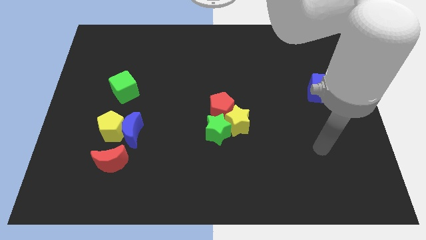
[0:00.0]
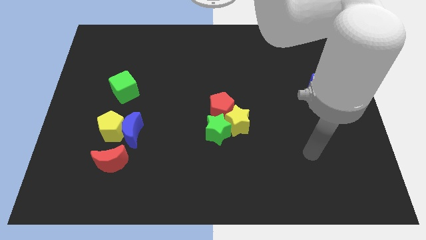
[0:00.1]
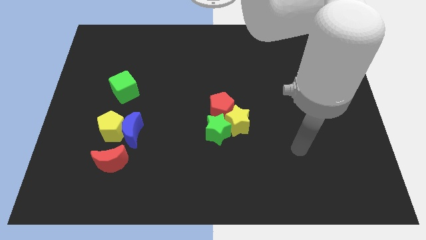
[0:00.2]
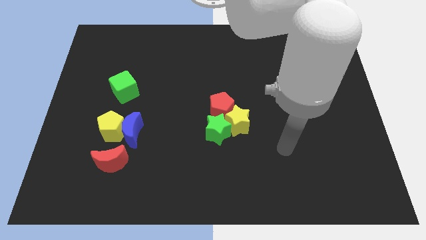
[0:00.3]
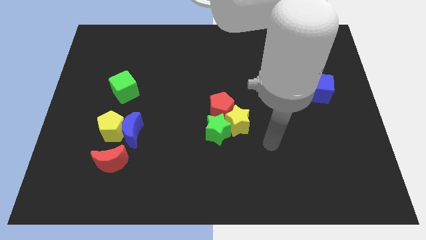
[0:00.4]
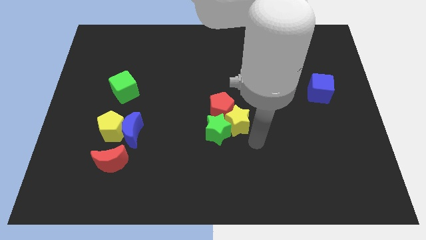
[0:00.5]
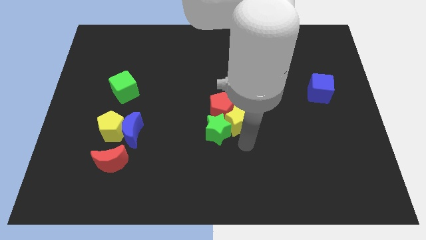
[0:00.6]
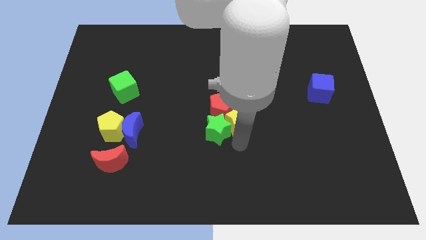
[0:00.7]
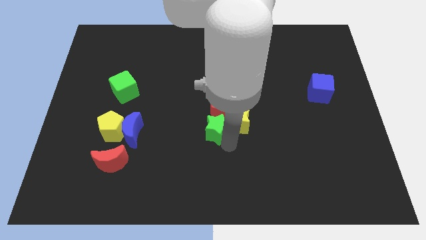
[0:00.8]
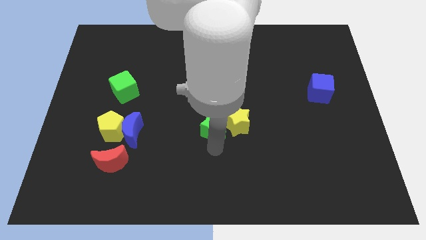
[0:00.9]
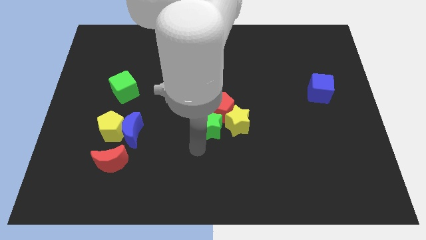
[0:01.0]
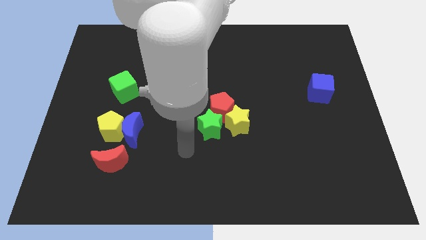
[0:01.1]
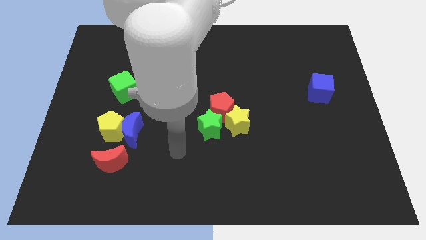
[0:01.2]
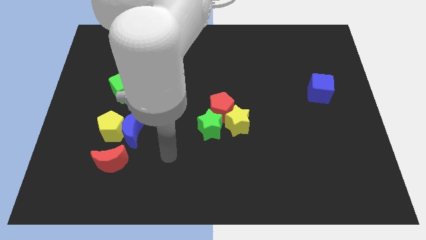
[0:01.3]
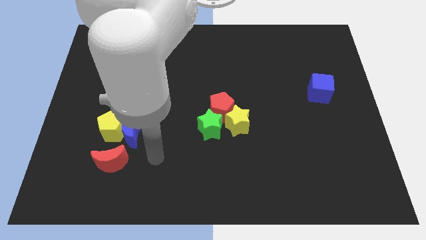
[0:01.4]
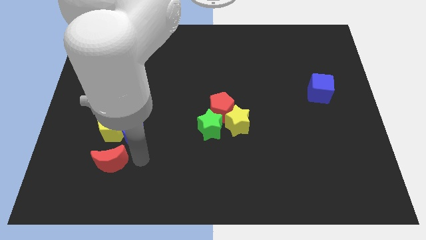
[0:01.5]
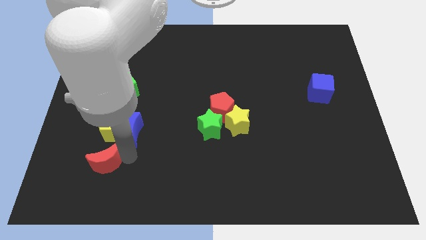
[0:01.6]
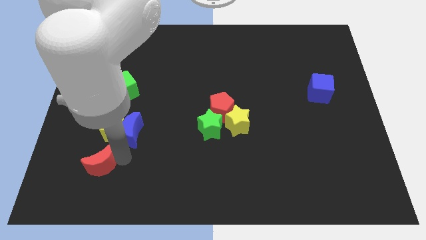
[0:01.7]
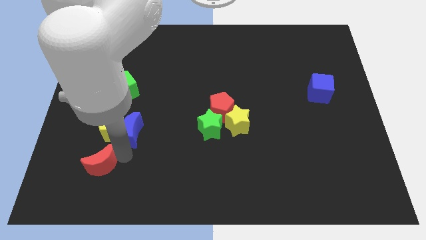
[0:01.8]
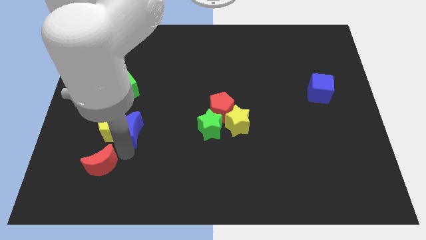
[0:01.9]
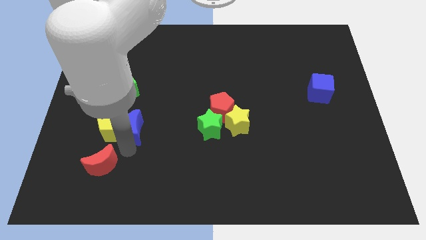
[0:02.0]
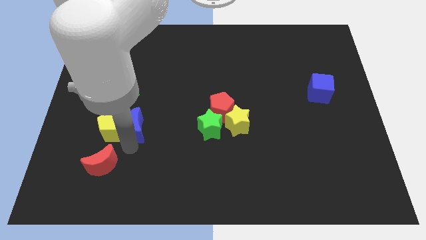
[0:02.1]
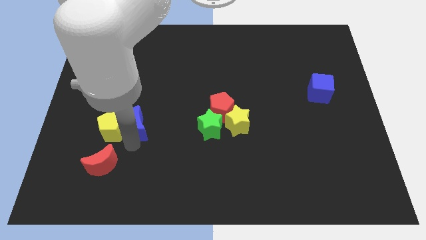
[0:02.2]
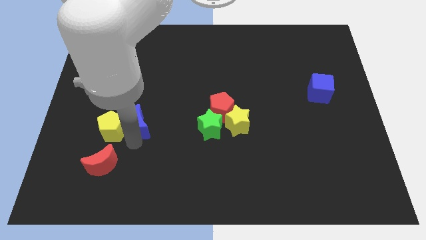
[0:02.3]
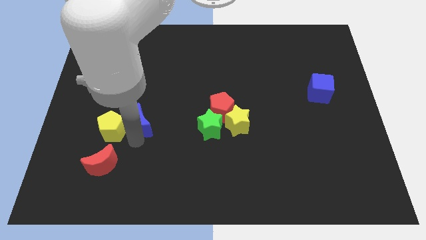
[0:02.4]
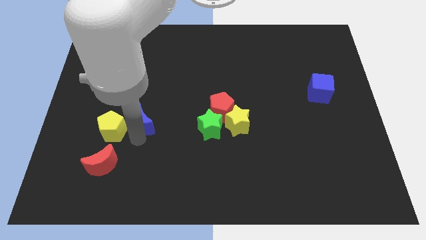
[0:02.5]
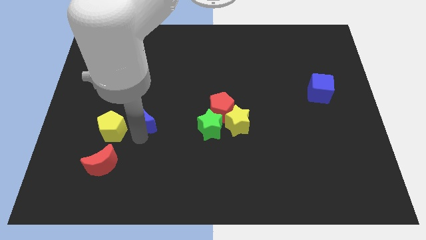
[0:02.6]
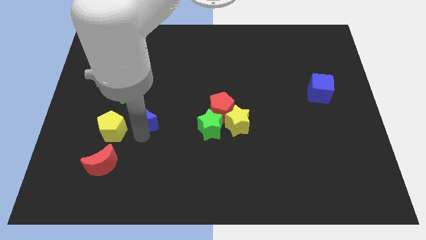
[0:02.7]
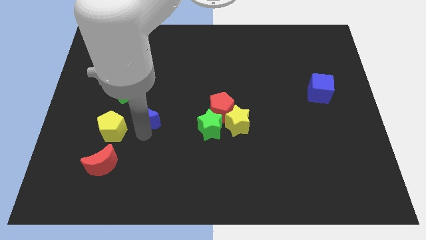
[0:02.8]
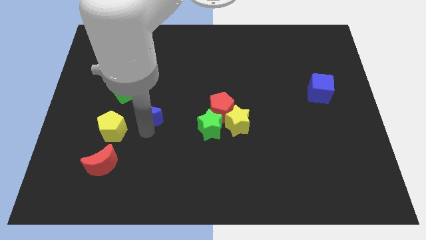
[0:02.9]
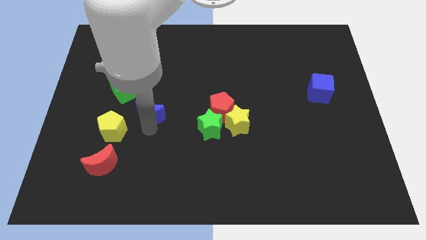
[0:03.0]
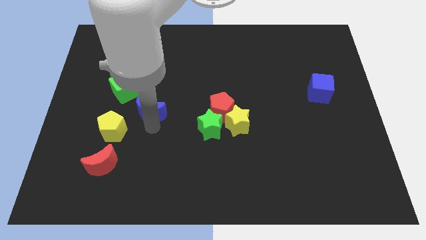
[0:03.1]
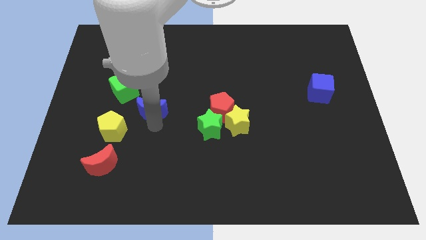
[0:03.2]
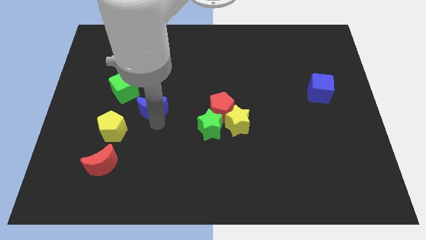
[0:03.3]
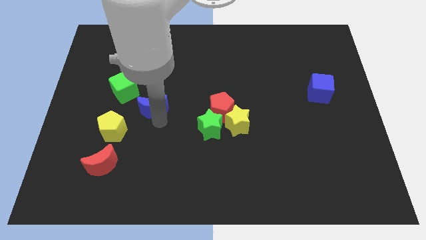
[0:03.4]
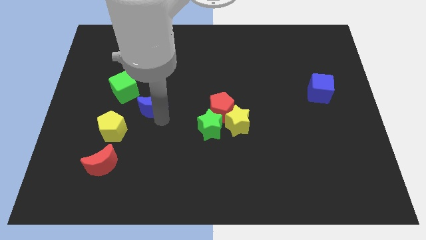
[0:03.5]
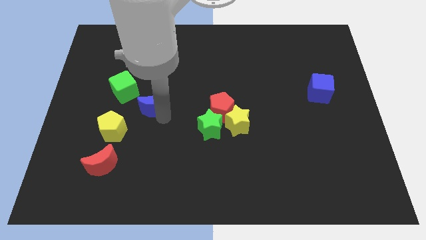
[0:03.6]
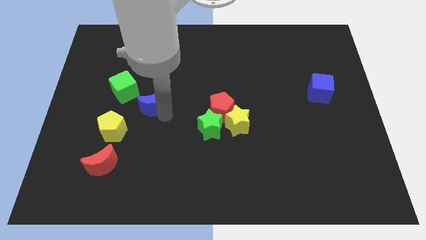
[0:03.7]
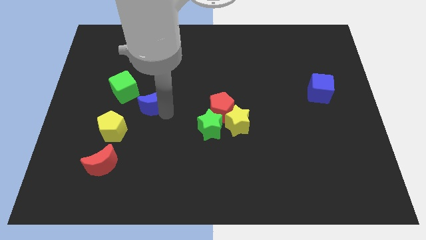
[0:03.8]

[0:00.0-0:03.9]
slide the blue moon a bit up

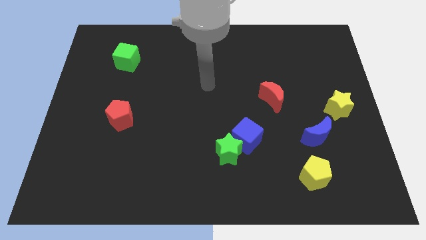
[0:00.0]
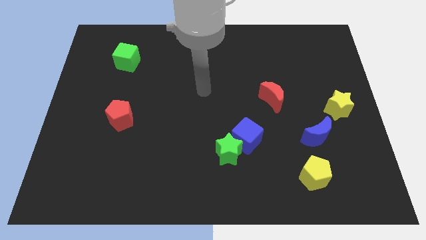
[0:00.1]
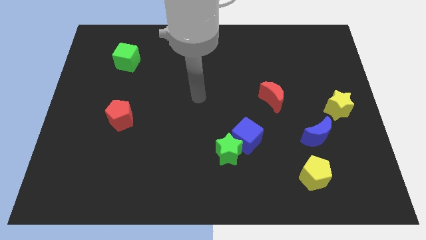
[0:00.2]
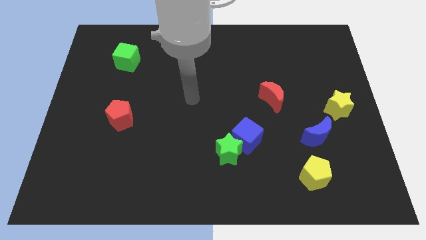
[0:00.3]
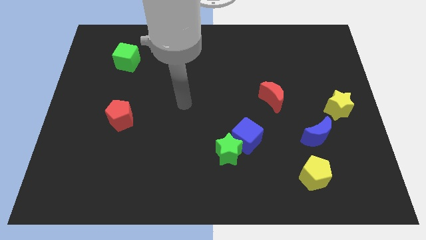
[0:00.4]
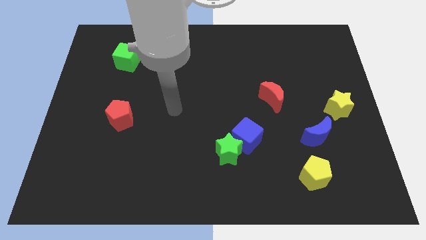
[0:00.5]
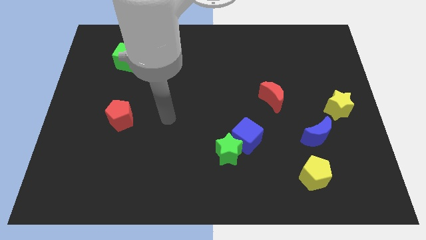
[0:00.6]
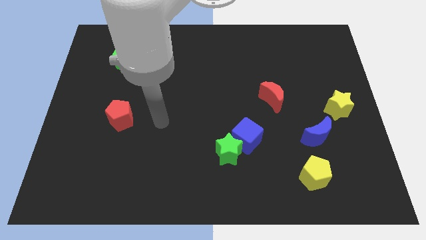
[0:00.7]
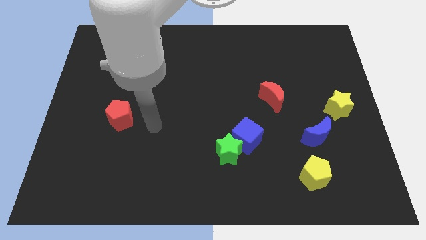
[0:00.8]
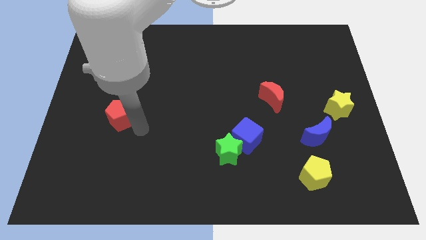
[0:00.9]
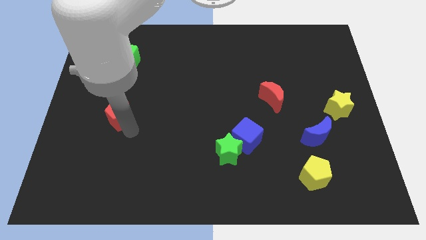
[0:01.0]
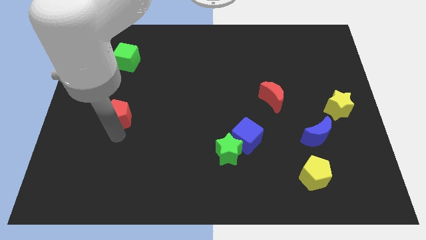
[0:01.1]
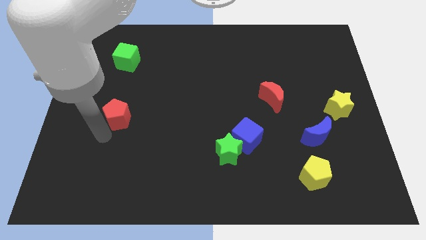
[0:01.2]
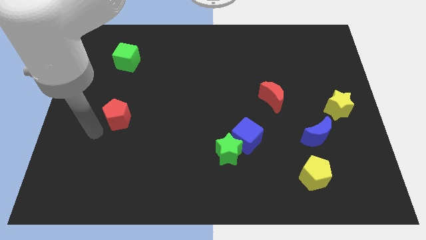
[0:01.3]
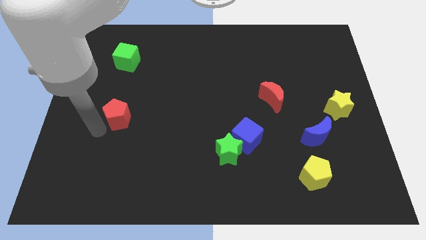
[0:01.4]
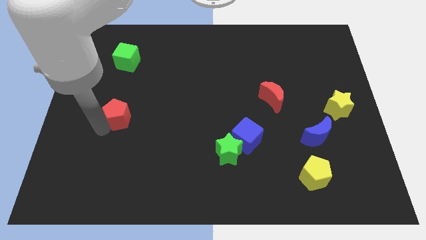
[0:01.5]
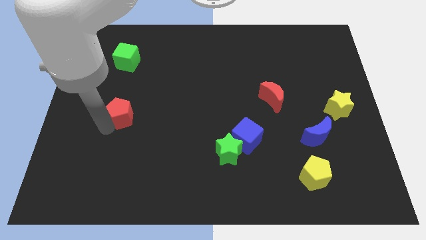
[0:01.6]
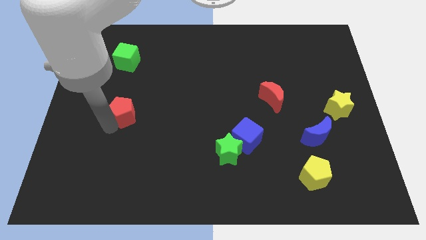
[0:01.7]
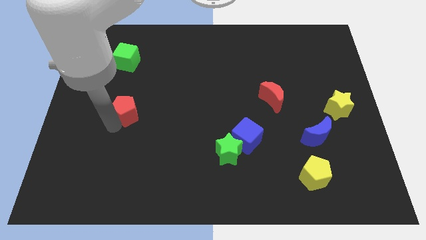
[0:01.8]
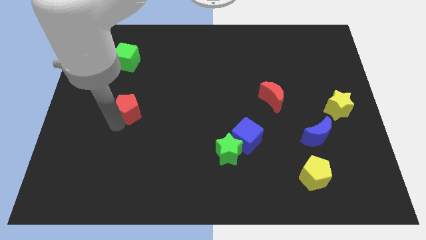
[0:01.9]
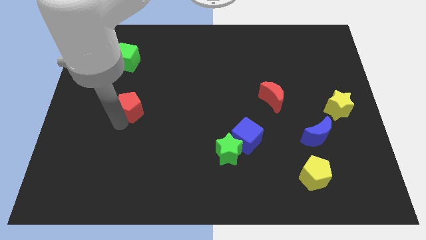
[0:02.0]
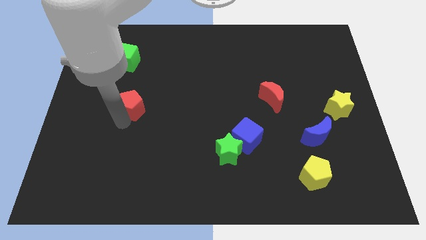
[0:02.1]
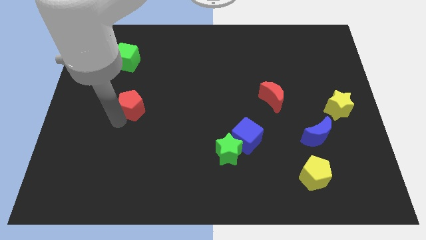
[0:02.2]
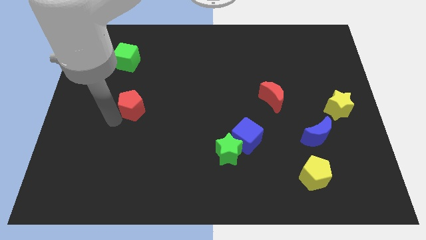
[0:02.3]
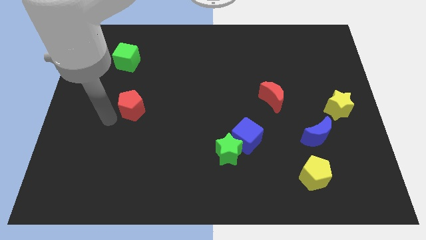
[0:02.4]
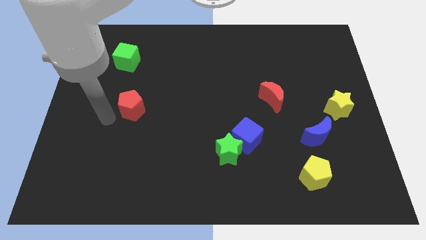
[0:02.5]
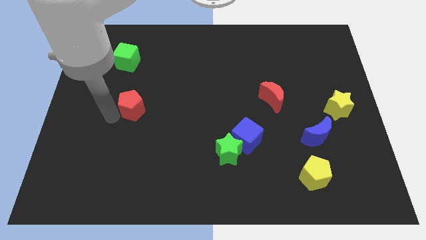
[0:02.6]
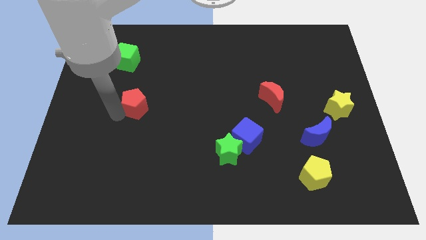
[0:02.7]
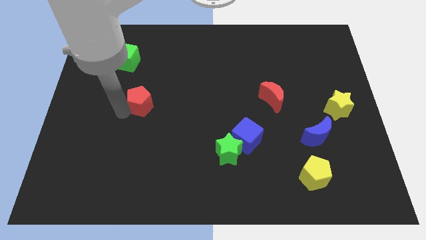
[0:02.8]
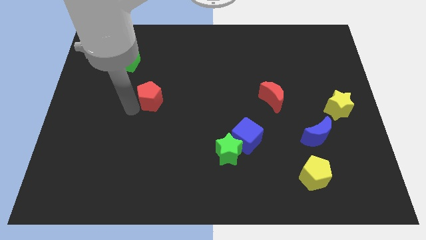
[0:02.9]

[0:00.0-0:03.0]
slightly slide the red pentagon upwards and right diagonally

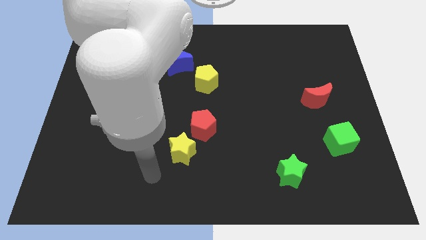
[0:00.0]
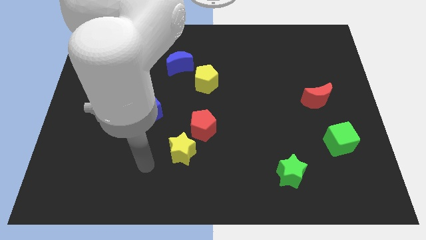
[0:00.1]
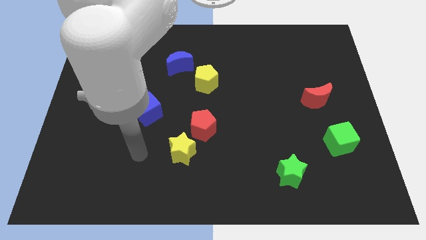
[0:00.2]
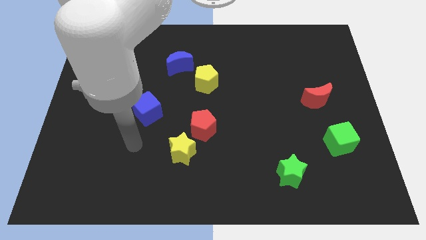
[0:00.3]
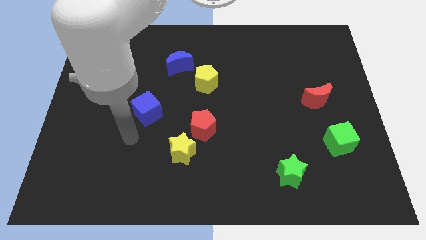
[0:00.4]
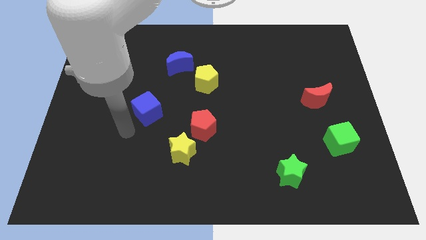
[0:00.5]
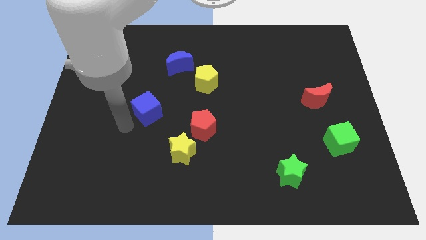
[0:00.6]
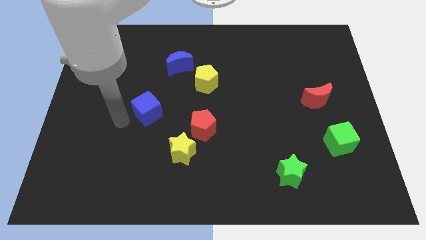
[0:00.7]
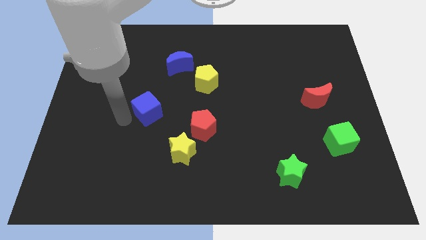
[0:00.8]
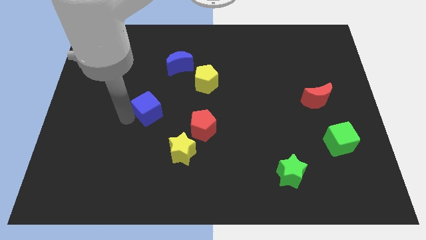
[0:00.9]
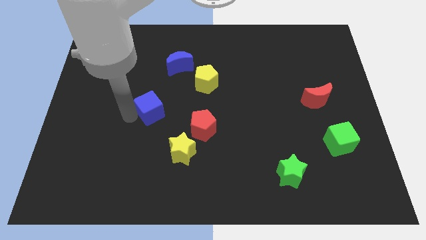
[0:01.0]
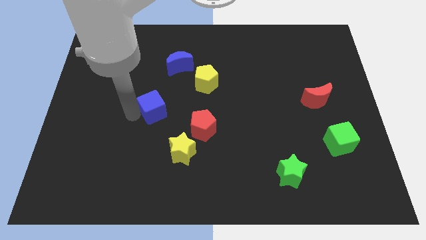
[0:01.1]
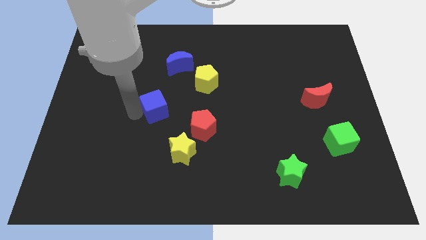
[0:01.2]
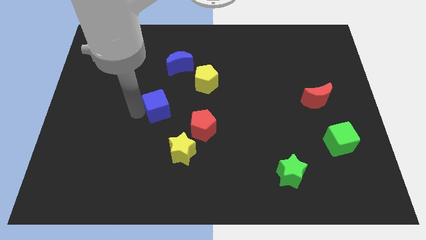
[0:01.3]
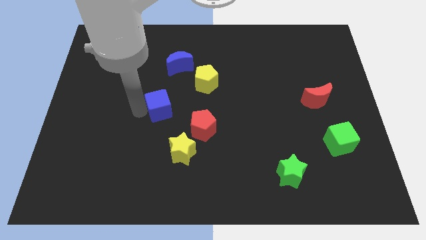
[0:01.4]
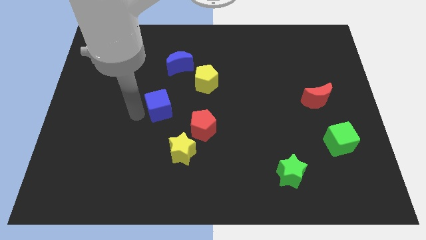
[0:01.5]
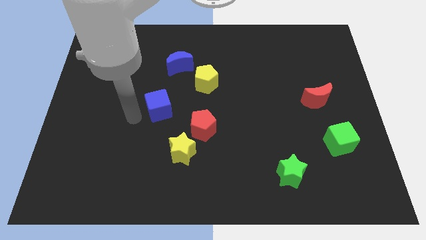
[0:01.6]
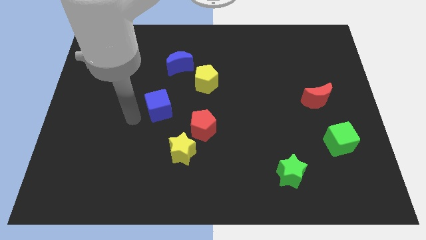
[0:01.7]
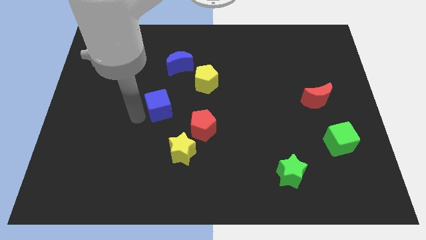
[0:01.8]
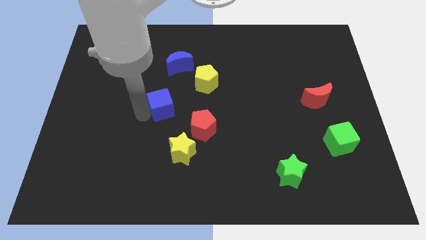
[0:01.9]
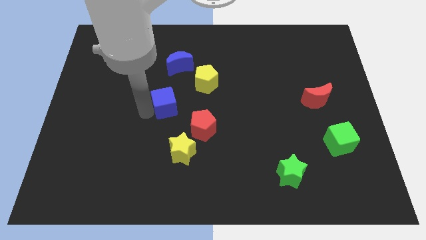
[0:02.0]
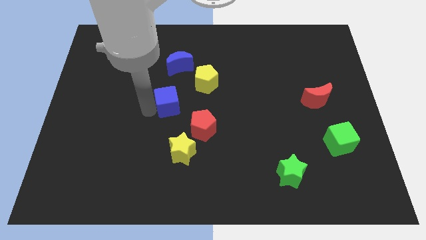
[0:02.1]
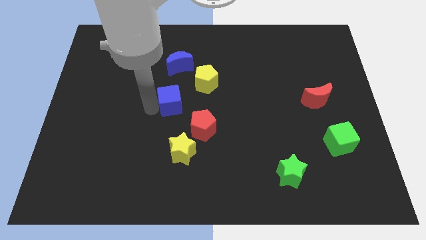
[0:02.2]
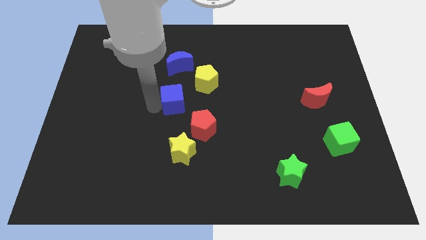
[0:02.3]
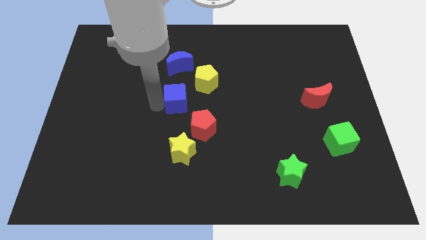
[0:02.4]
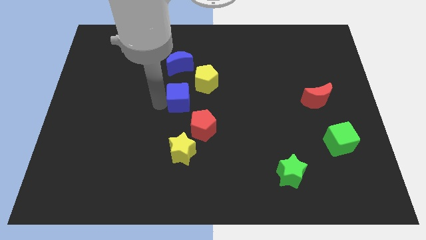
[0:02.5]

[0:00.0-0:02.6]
slightly move the blue cube upwards and to the right
